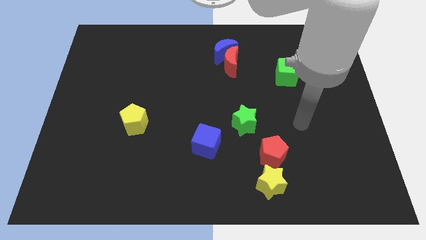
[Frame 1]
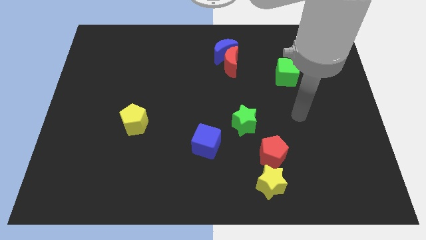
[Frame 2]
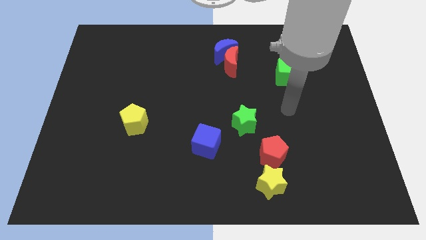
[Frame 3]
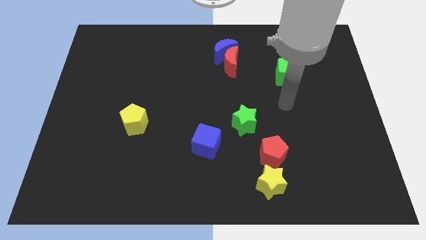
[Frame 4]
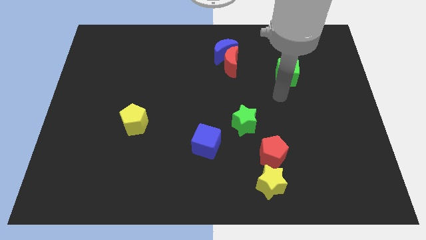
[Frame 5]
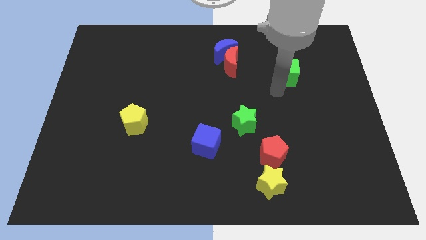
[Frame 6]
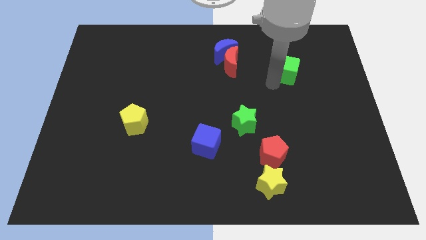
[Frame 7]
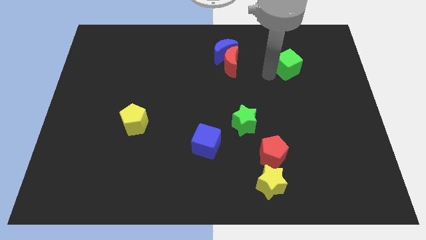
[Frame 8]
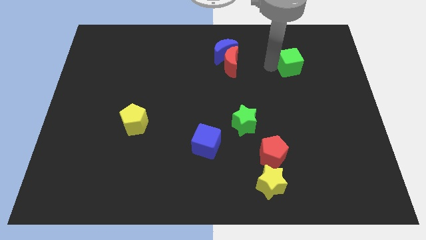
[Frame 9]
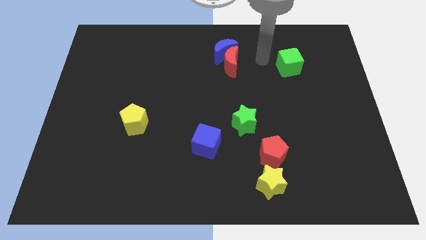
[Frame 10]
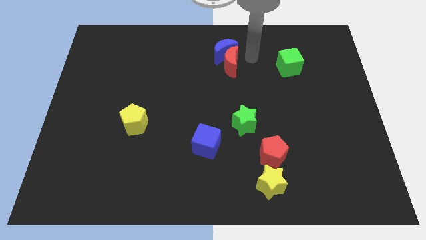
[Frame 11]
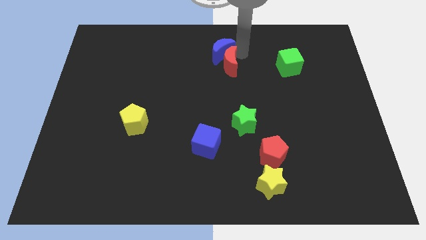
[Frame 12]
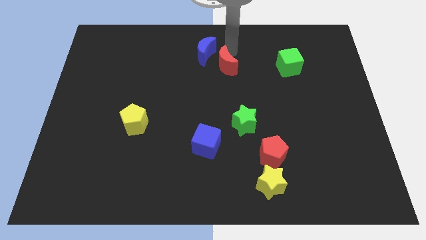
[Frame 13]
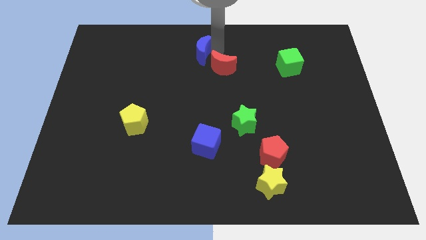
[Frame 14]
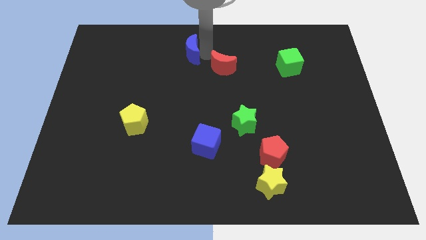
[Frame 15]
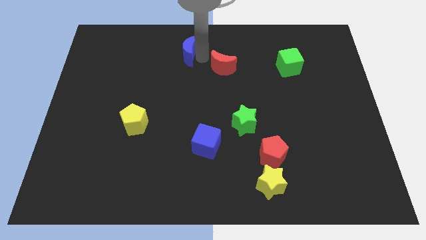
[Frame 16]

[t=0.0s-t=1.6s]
move the red moon away from the blue moon

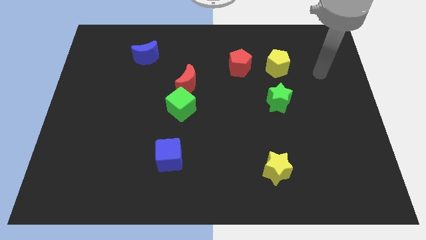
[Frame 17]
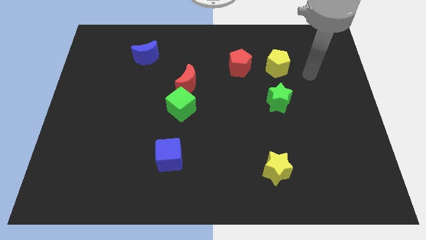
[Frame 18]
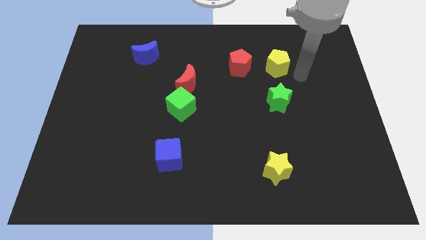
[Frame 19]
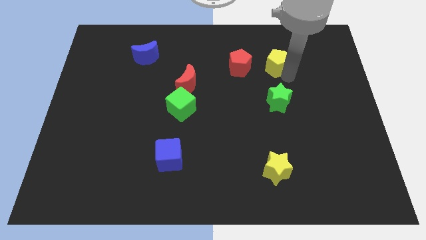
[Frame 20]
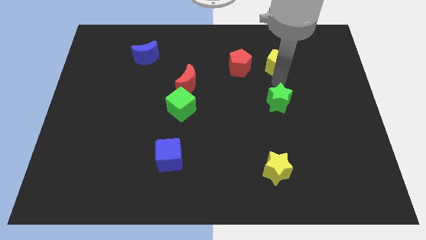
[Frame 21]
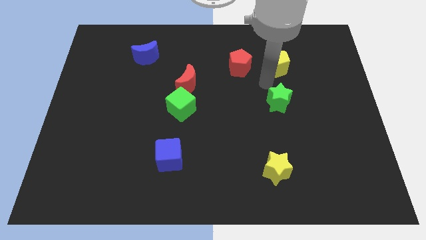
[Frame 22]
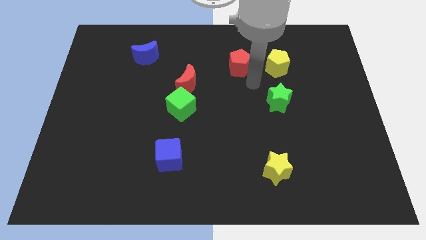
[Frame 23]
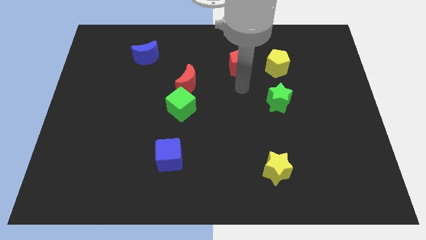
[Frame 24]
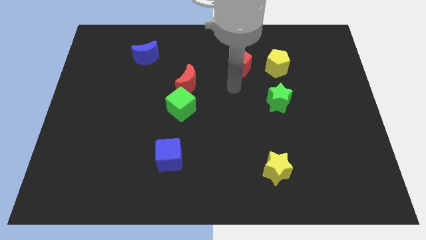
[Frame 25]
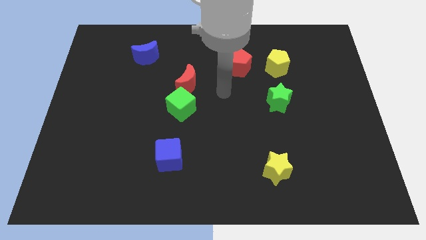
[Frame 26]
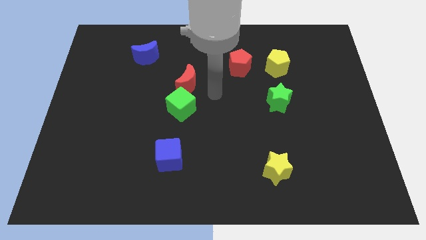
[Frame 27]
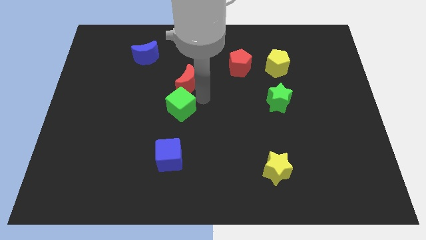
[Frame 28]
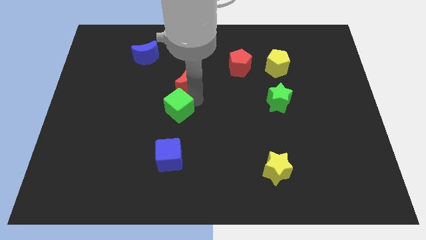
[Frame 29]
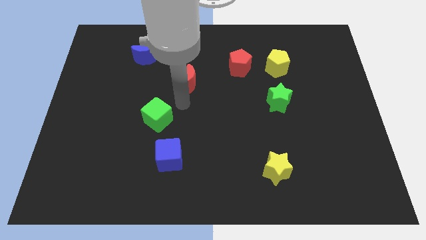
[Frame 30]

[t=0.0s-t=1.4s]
pull the red moon apart from the green cube

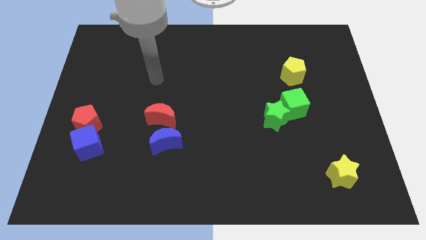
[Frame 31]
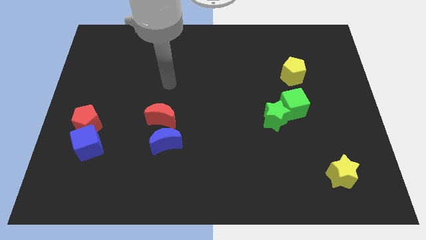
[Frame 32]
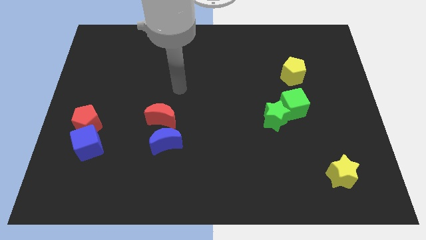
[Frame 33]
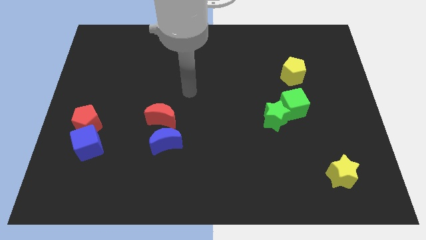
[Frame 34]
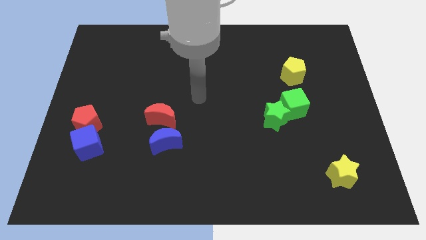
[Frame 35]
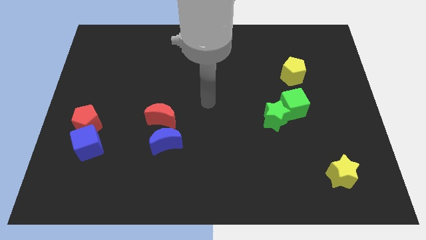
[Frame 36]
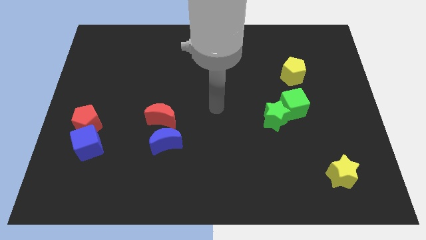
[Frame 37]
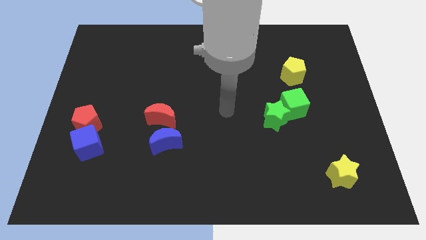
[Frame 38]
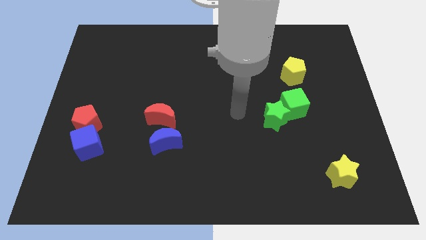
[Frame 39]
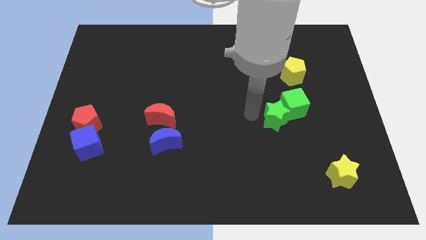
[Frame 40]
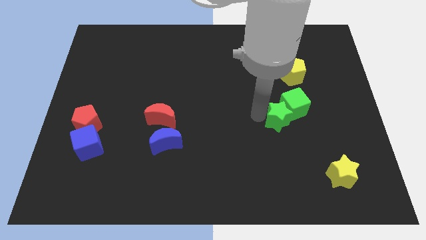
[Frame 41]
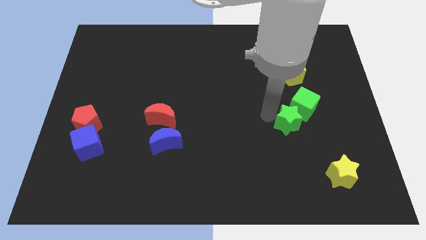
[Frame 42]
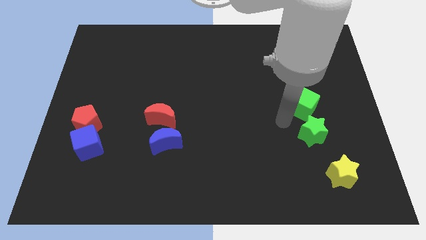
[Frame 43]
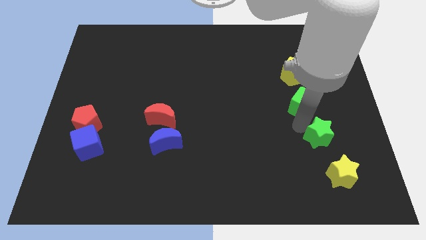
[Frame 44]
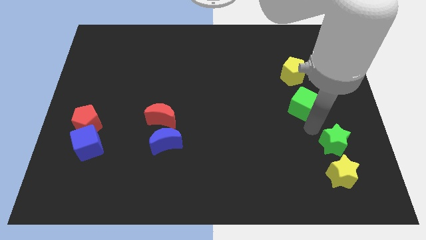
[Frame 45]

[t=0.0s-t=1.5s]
move the green cube away from the green star

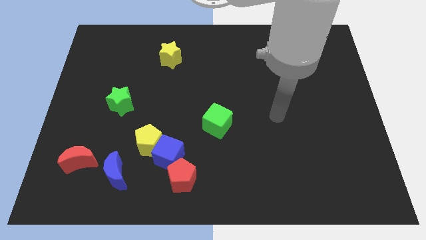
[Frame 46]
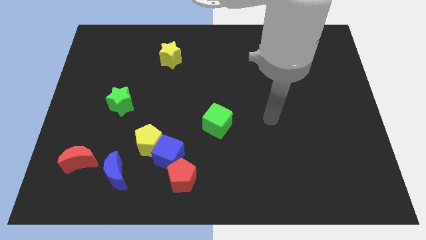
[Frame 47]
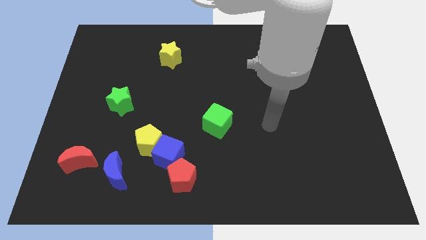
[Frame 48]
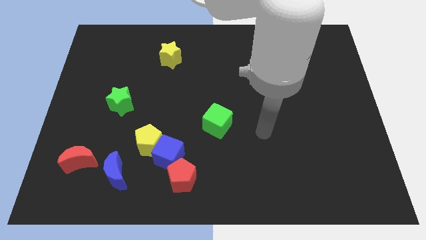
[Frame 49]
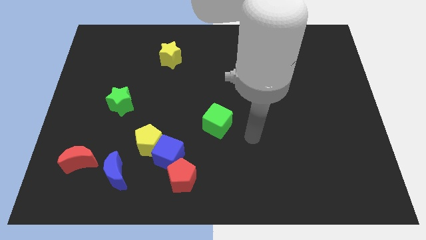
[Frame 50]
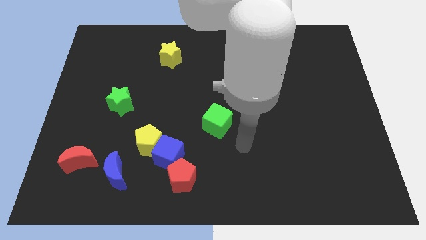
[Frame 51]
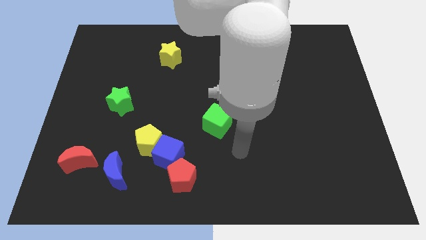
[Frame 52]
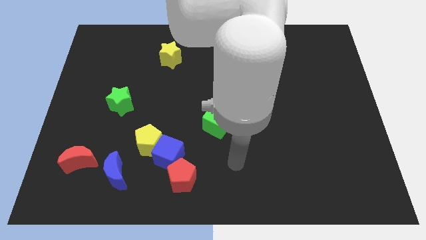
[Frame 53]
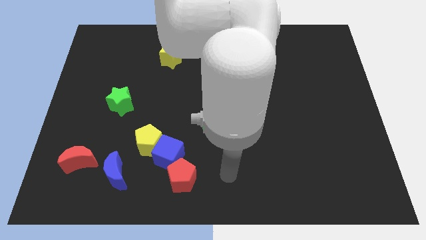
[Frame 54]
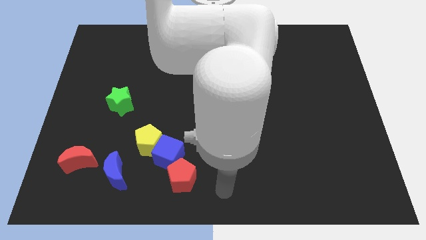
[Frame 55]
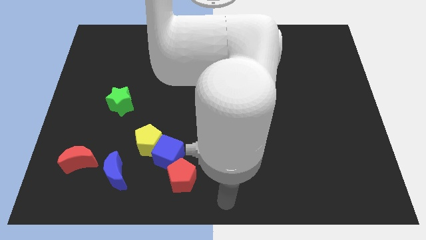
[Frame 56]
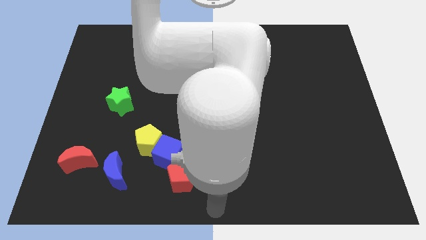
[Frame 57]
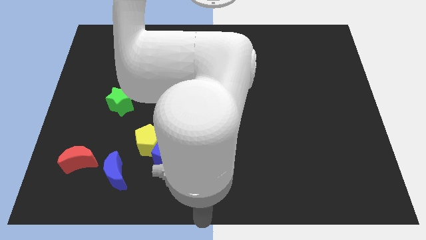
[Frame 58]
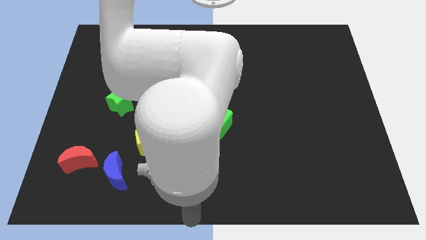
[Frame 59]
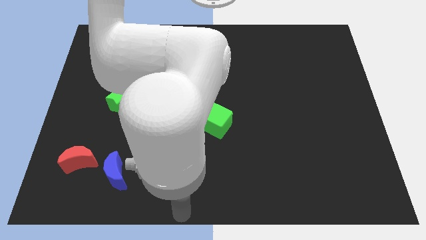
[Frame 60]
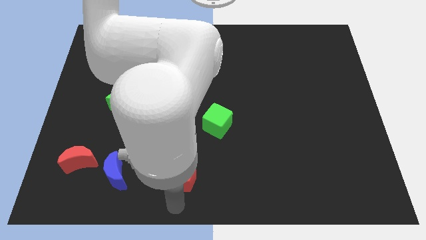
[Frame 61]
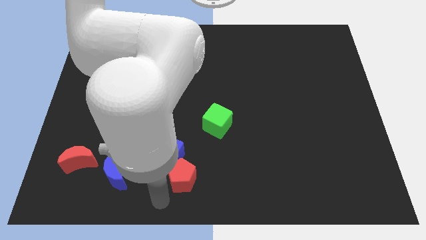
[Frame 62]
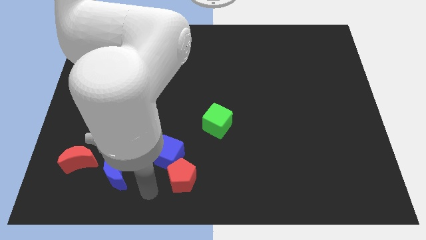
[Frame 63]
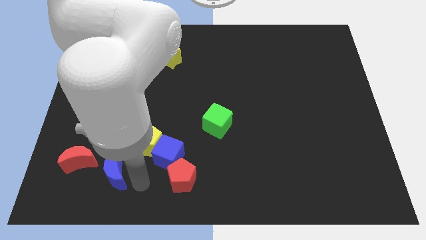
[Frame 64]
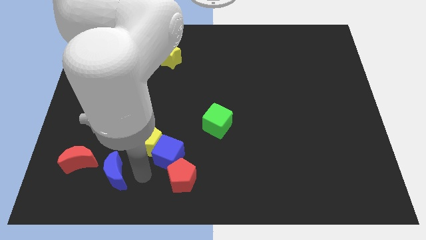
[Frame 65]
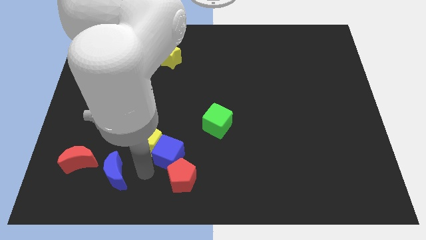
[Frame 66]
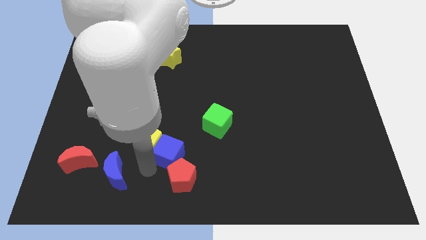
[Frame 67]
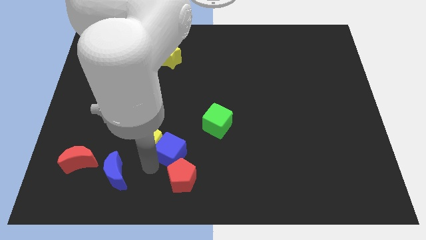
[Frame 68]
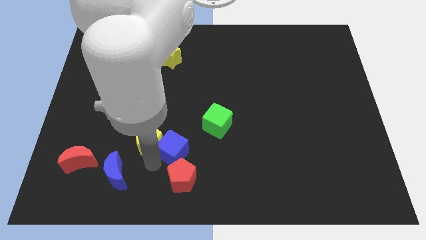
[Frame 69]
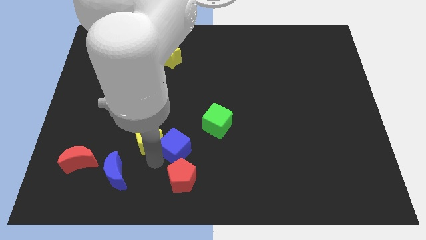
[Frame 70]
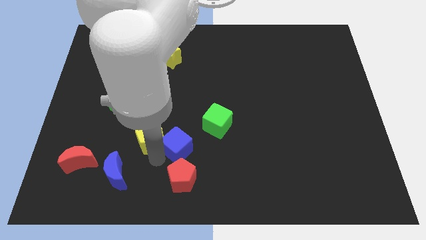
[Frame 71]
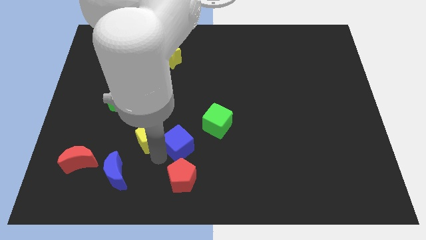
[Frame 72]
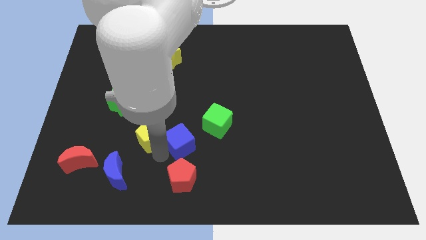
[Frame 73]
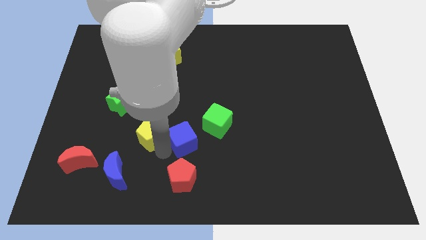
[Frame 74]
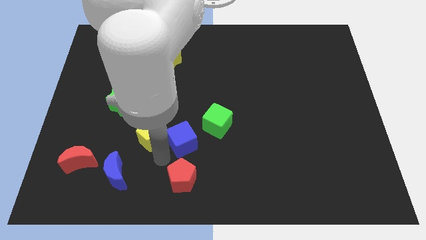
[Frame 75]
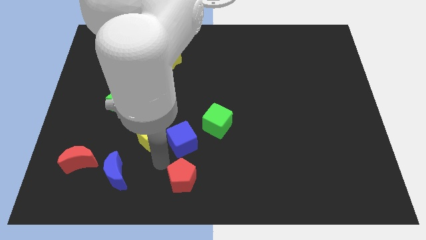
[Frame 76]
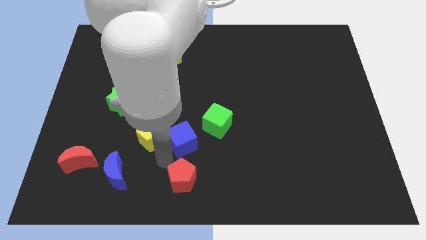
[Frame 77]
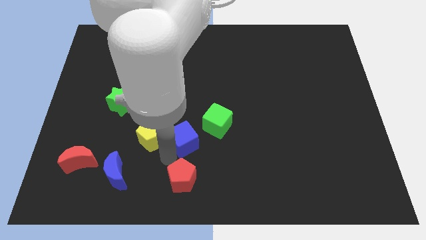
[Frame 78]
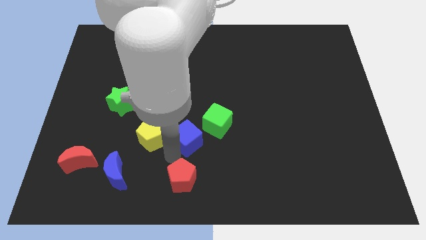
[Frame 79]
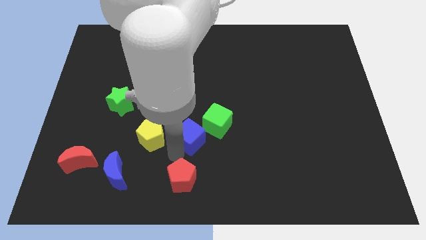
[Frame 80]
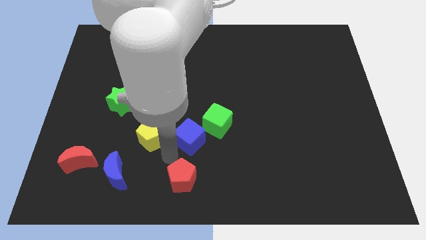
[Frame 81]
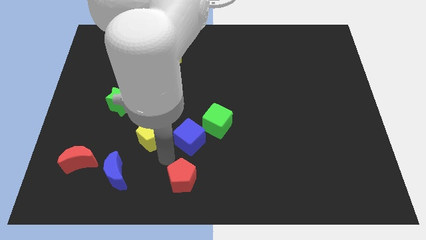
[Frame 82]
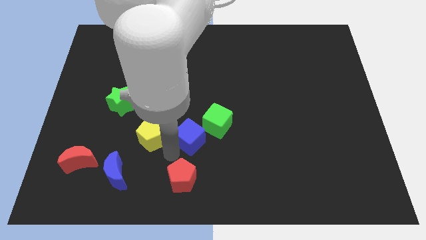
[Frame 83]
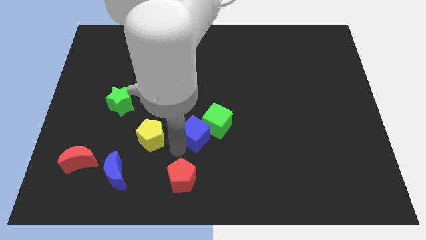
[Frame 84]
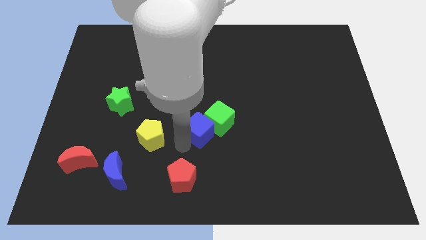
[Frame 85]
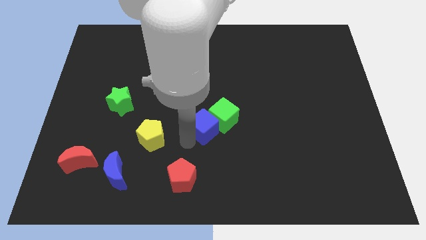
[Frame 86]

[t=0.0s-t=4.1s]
separate the blue cube from the yellow pentagon and red pentagon

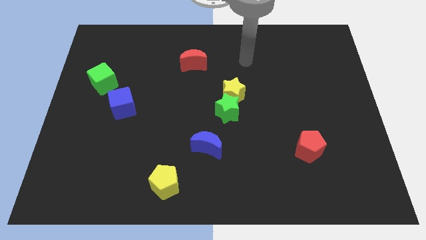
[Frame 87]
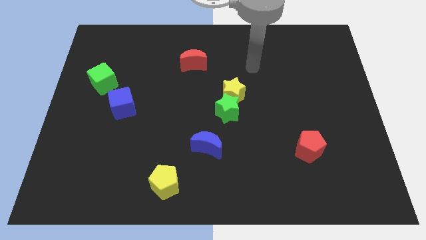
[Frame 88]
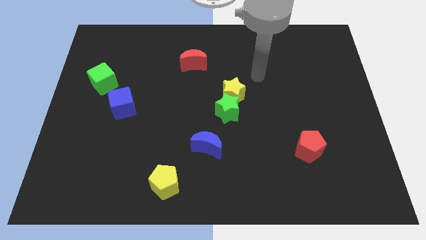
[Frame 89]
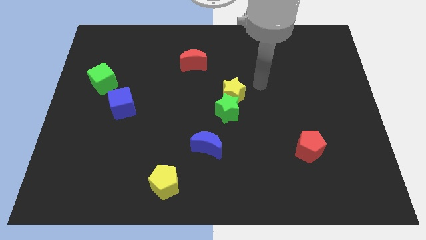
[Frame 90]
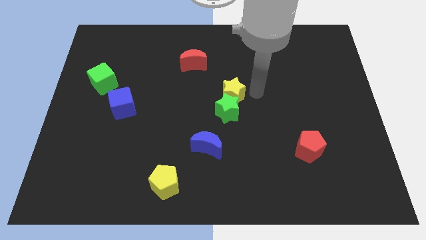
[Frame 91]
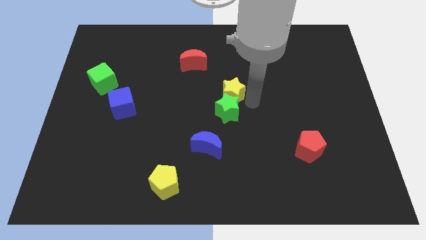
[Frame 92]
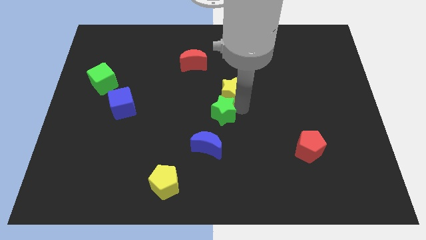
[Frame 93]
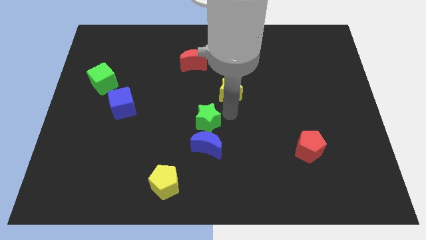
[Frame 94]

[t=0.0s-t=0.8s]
pull the yellow star apart from the green star
